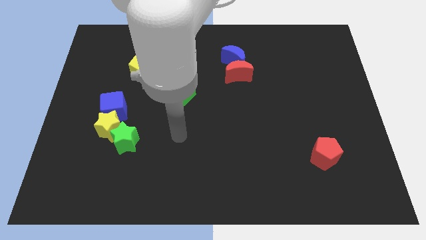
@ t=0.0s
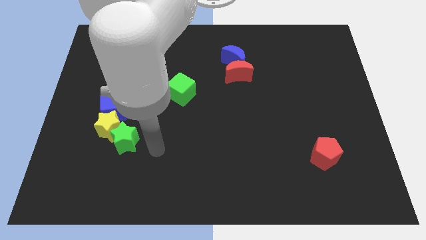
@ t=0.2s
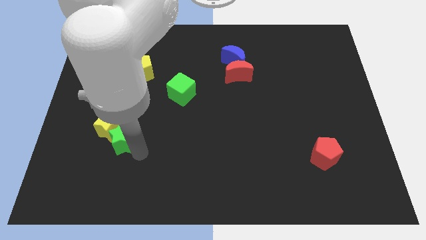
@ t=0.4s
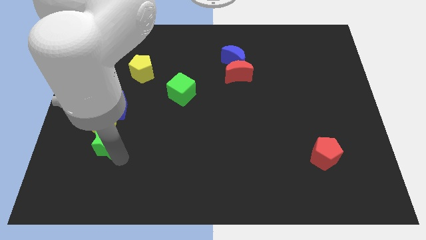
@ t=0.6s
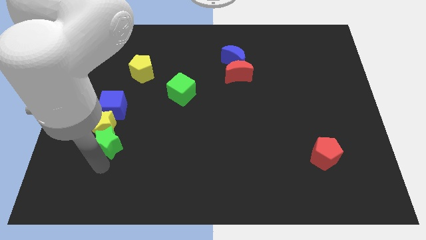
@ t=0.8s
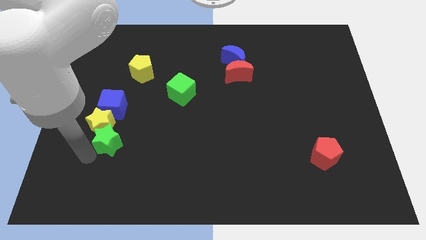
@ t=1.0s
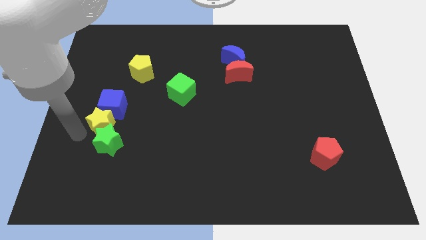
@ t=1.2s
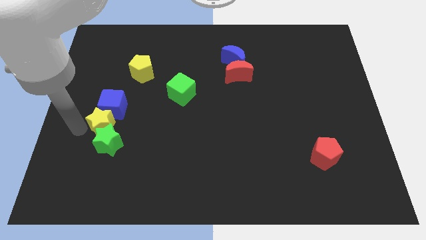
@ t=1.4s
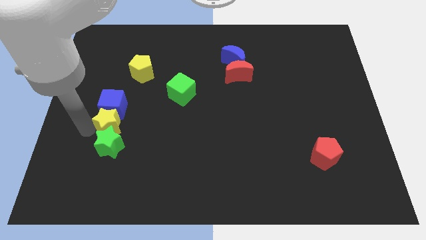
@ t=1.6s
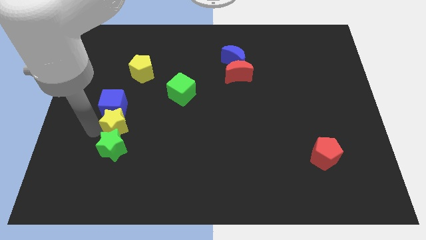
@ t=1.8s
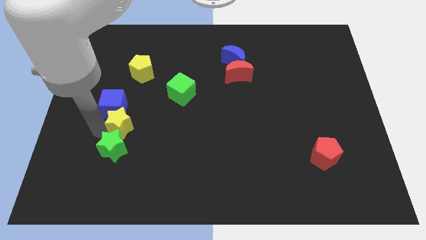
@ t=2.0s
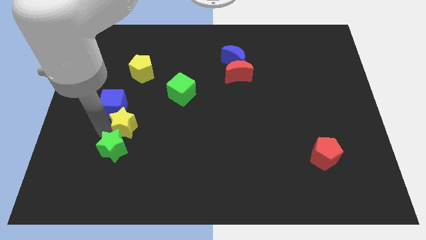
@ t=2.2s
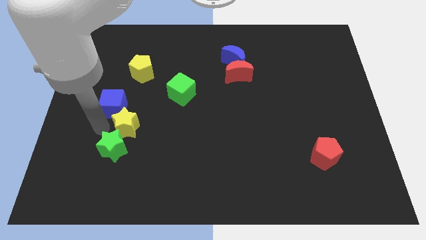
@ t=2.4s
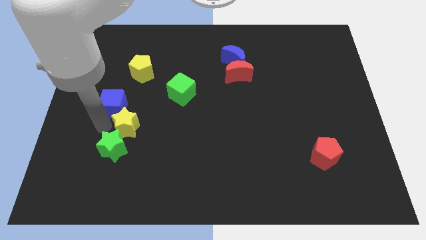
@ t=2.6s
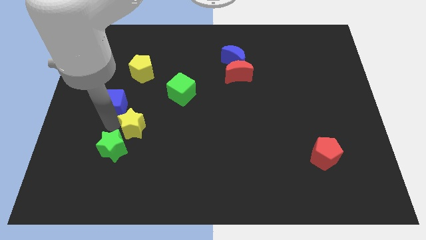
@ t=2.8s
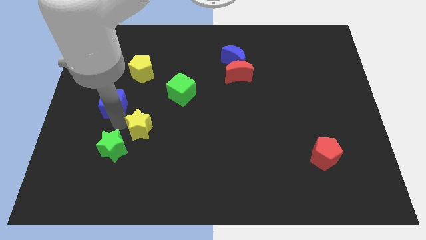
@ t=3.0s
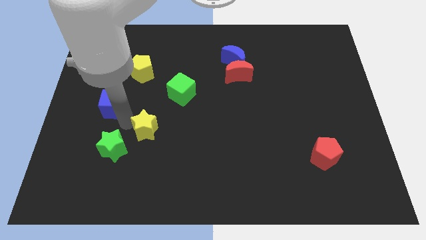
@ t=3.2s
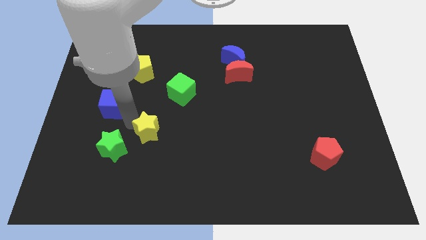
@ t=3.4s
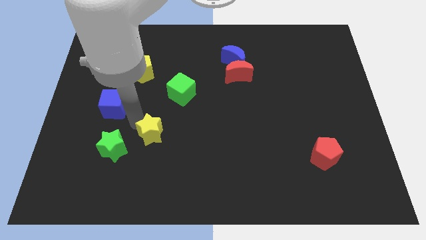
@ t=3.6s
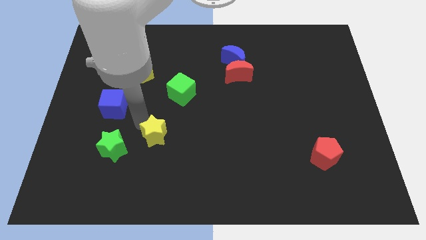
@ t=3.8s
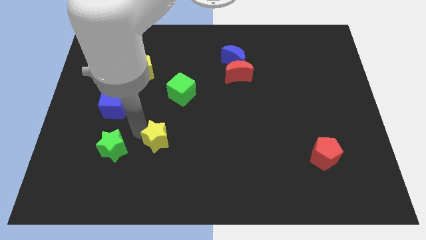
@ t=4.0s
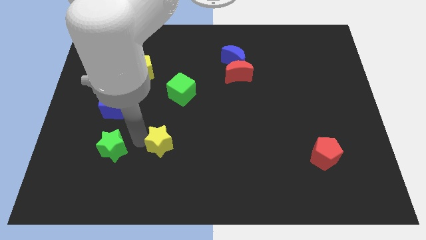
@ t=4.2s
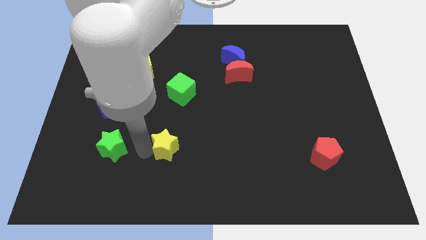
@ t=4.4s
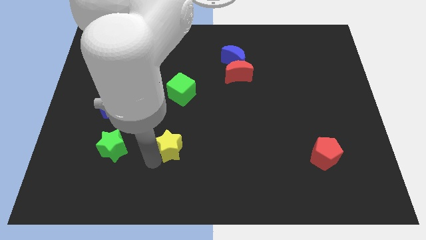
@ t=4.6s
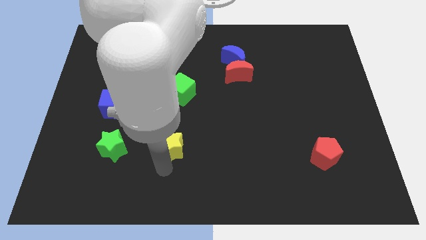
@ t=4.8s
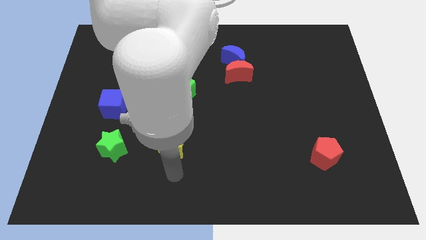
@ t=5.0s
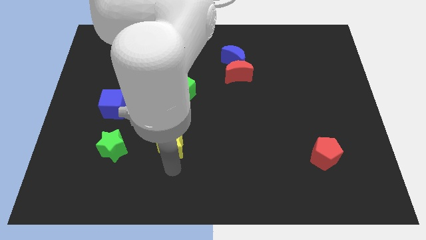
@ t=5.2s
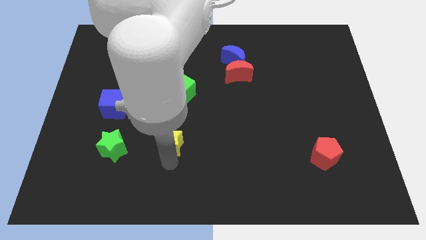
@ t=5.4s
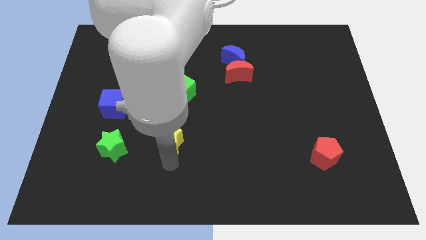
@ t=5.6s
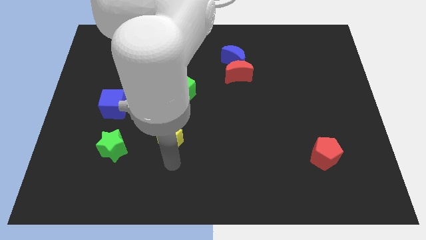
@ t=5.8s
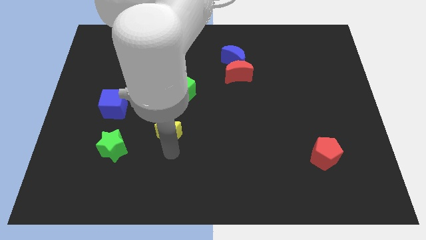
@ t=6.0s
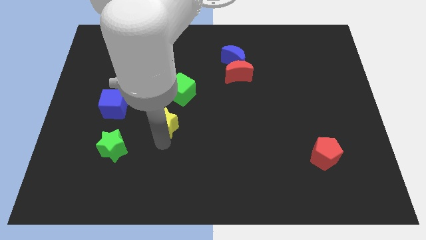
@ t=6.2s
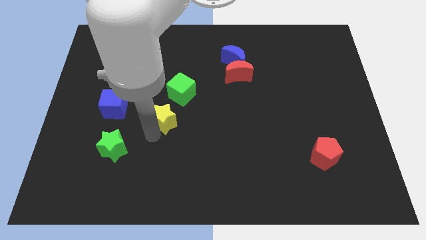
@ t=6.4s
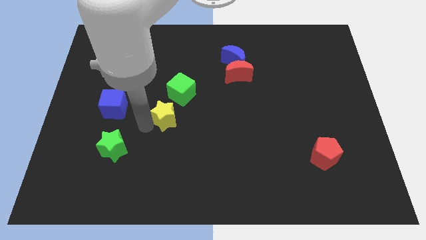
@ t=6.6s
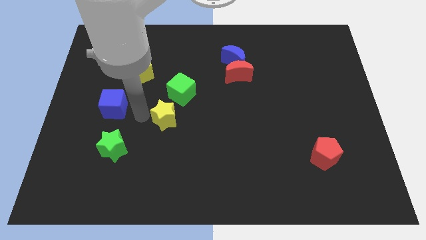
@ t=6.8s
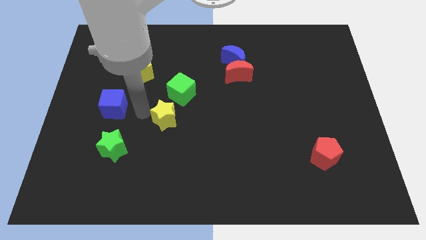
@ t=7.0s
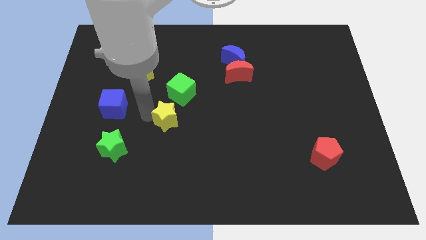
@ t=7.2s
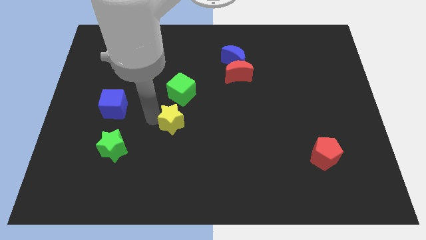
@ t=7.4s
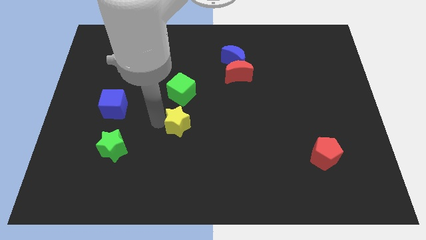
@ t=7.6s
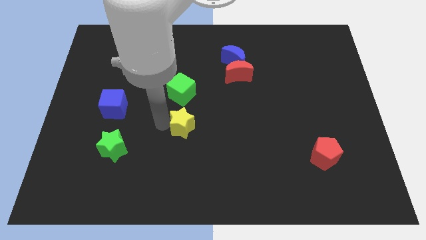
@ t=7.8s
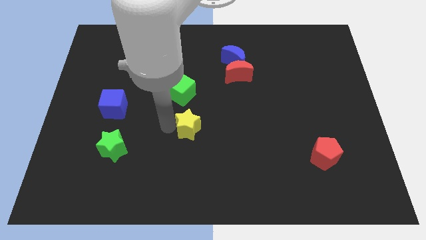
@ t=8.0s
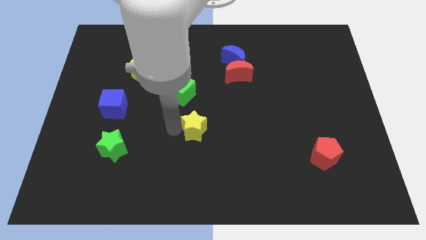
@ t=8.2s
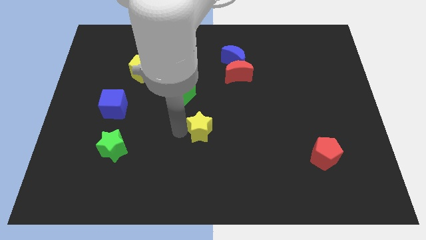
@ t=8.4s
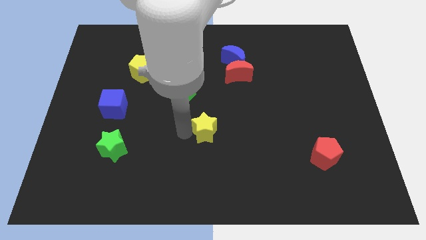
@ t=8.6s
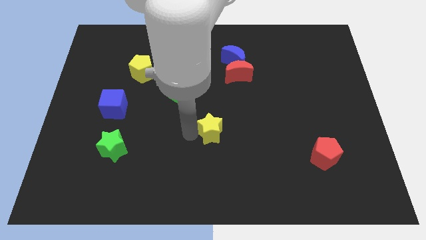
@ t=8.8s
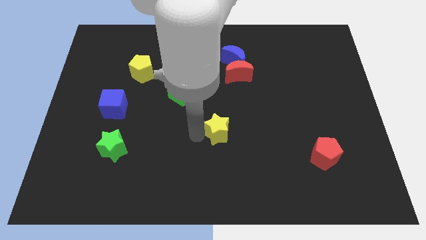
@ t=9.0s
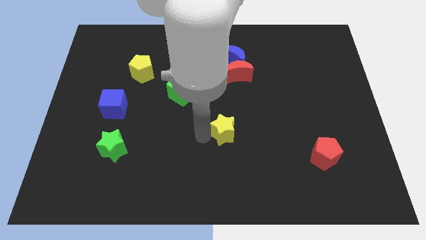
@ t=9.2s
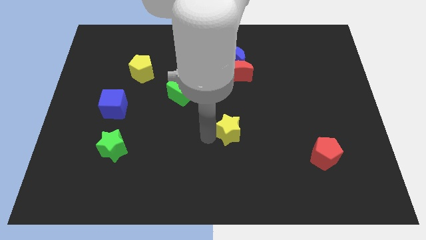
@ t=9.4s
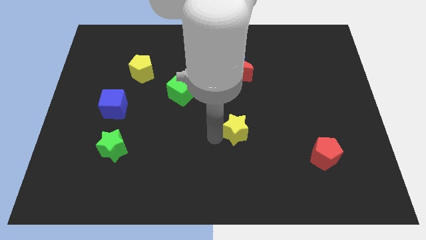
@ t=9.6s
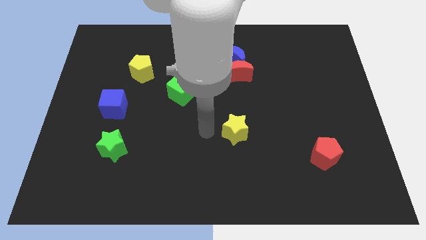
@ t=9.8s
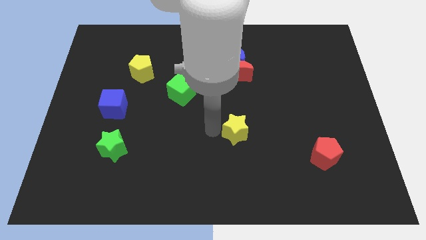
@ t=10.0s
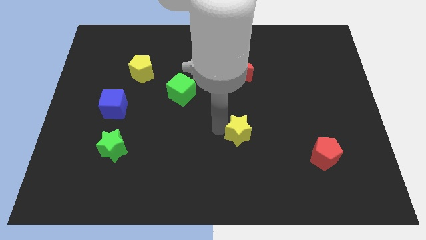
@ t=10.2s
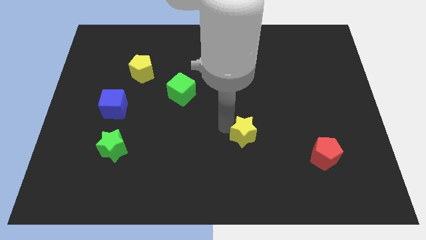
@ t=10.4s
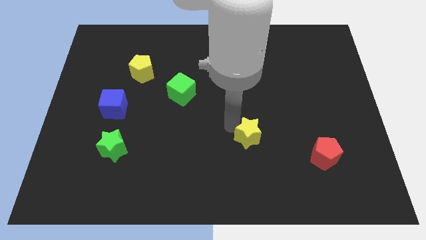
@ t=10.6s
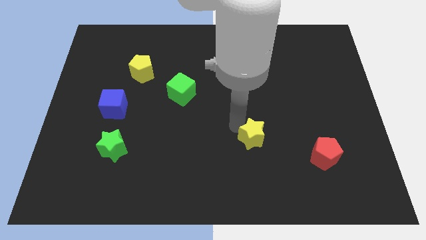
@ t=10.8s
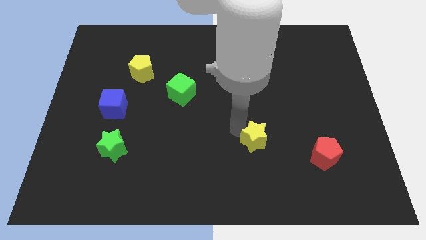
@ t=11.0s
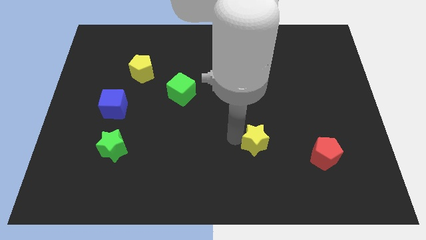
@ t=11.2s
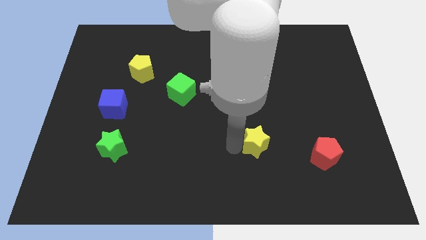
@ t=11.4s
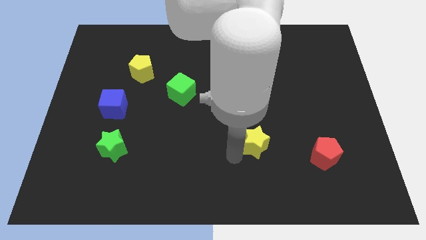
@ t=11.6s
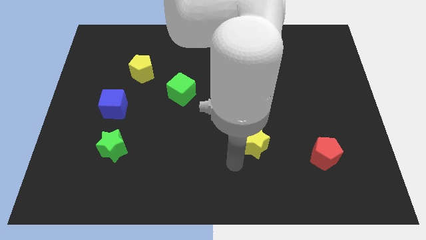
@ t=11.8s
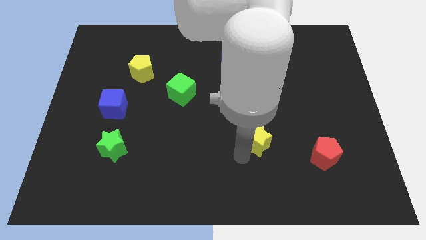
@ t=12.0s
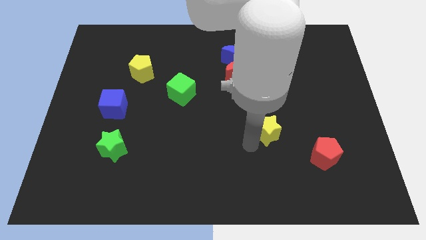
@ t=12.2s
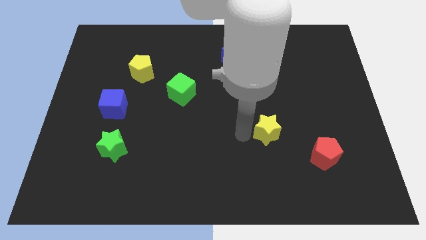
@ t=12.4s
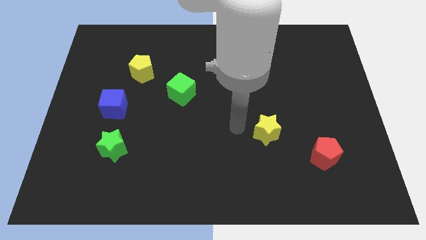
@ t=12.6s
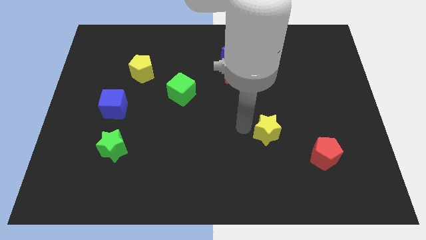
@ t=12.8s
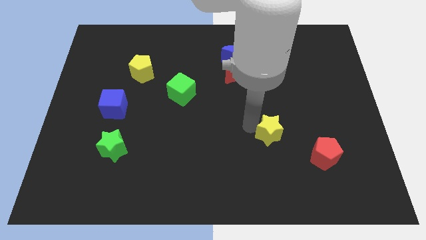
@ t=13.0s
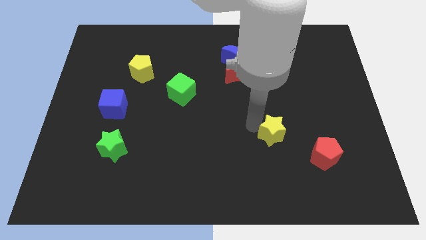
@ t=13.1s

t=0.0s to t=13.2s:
push the yellow star to the top left of the red pentagon

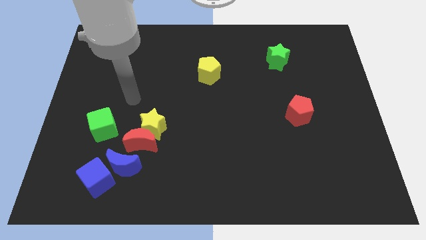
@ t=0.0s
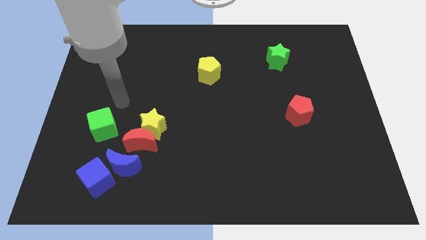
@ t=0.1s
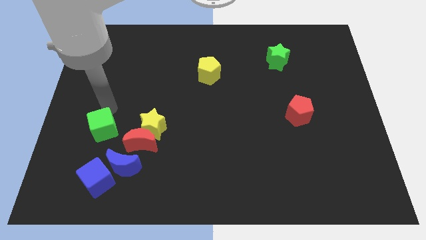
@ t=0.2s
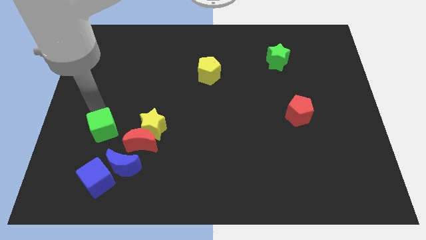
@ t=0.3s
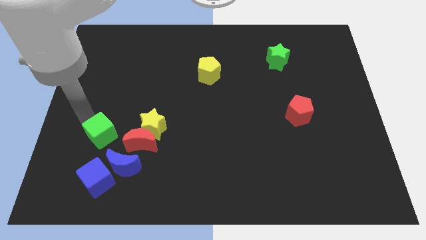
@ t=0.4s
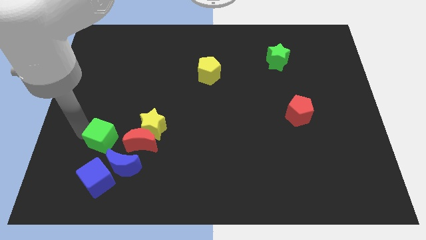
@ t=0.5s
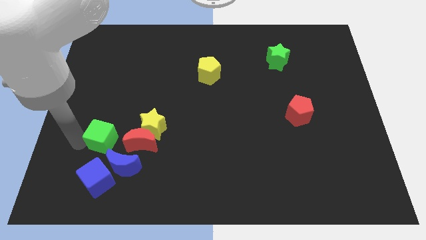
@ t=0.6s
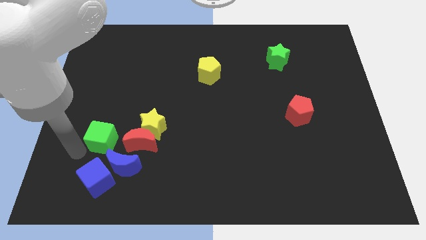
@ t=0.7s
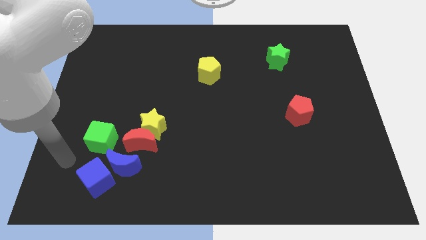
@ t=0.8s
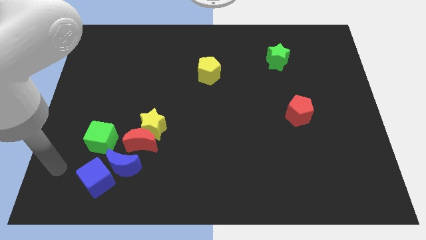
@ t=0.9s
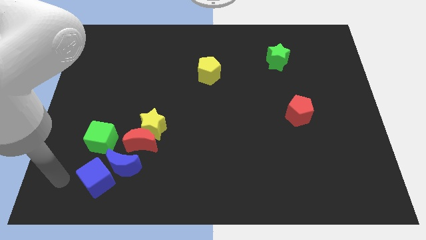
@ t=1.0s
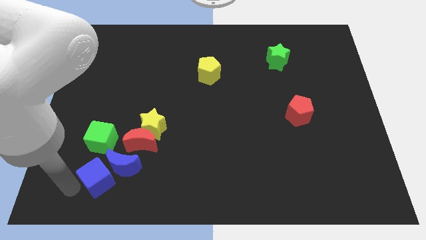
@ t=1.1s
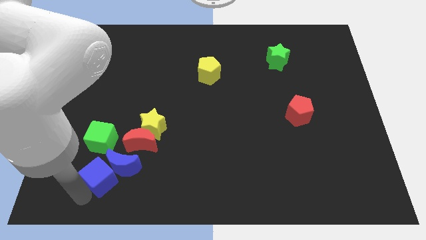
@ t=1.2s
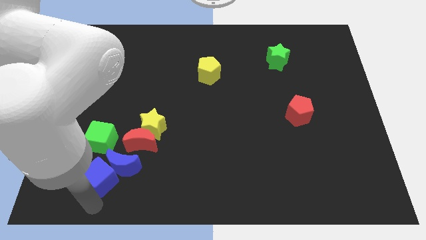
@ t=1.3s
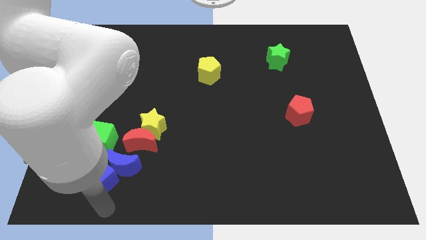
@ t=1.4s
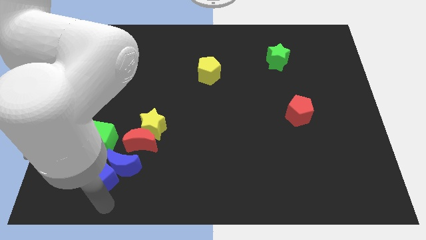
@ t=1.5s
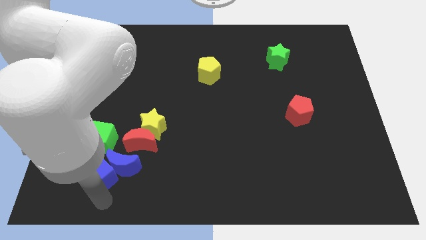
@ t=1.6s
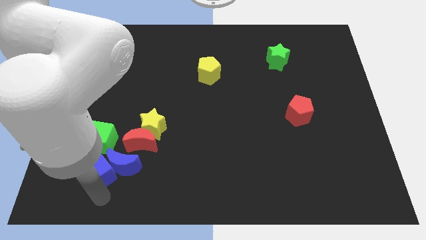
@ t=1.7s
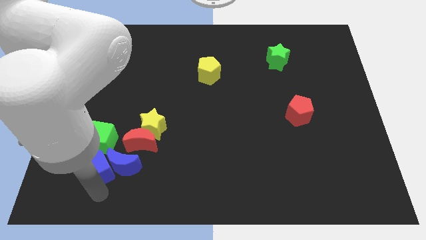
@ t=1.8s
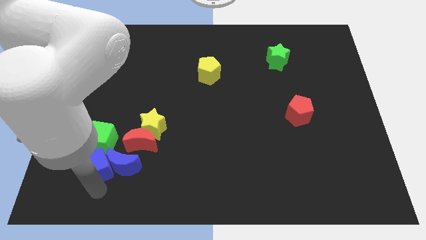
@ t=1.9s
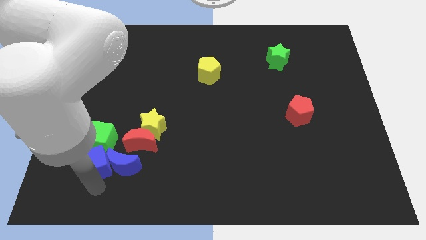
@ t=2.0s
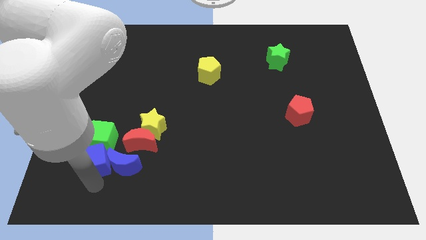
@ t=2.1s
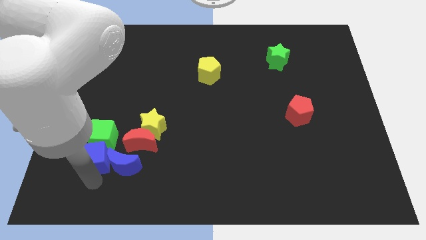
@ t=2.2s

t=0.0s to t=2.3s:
put the blue cube to the left of the red moon
